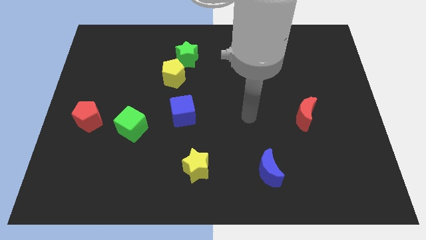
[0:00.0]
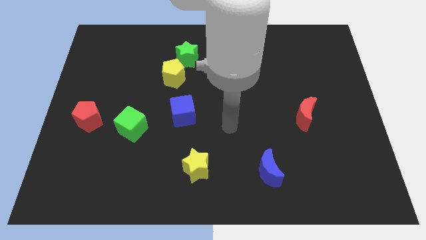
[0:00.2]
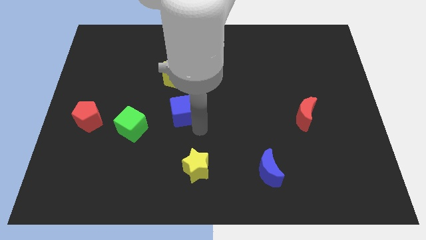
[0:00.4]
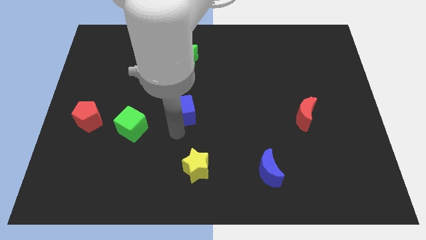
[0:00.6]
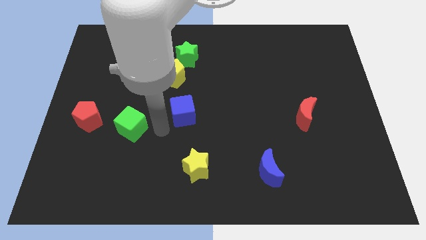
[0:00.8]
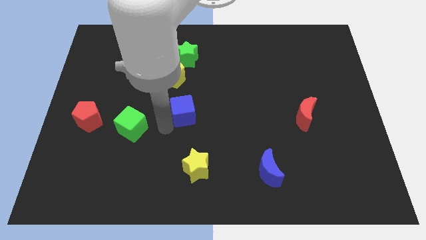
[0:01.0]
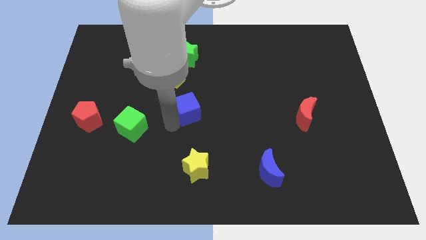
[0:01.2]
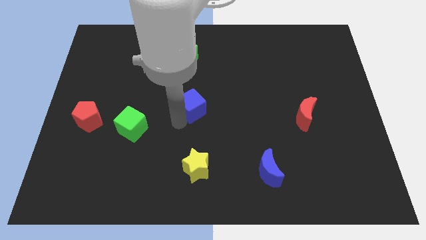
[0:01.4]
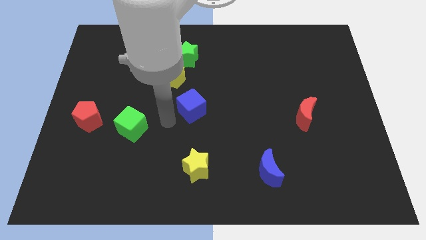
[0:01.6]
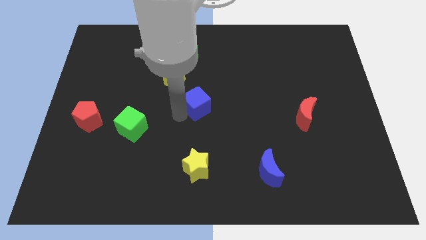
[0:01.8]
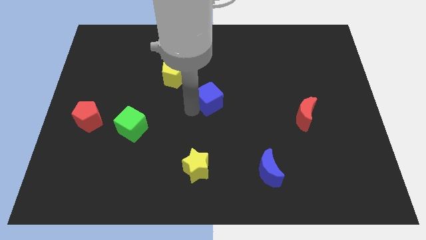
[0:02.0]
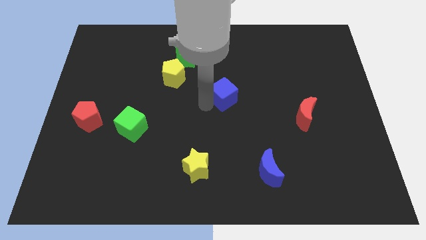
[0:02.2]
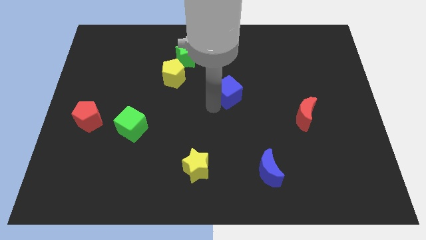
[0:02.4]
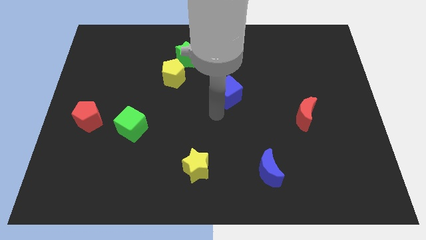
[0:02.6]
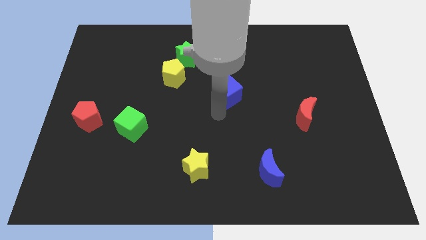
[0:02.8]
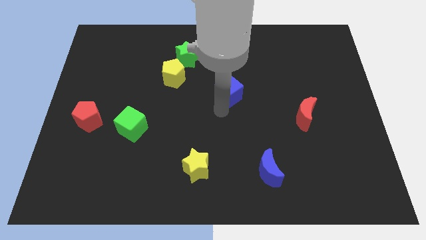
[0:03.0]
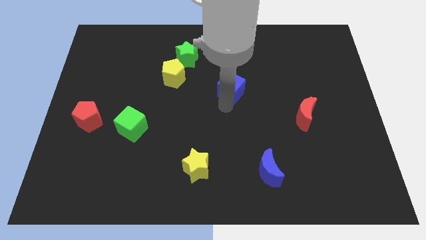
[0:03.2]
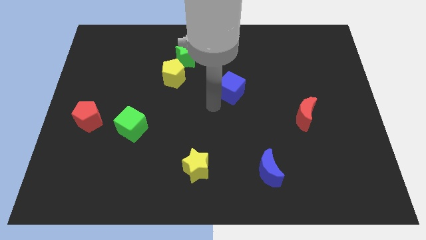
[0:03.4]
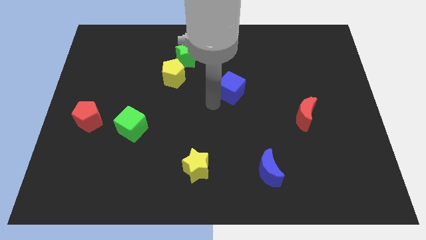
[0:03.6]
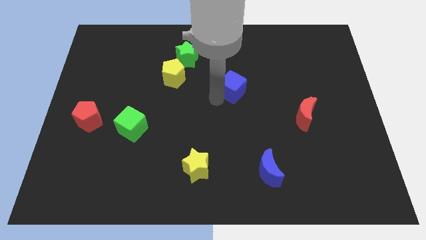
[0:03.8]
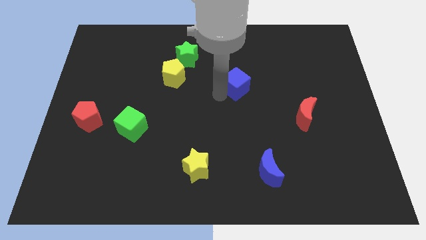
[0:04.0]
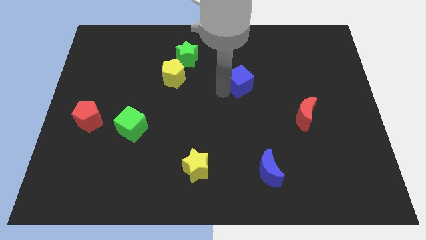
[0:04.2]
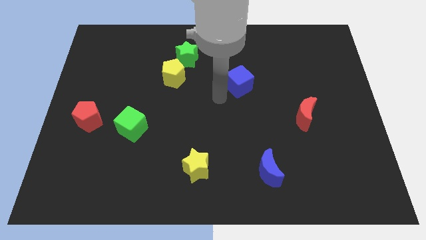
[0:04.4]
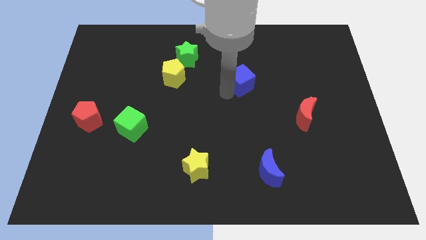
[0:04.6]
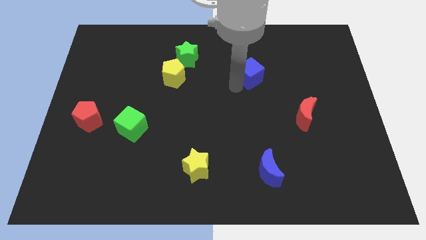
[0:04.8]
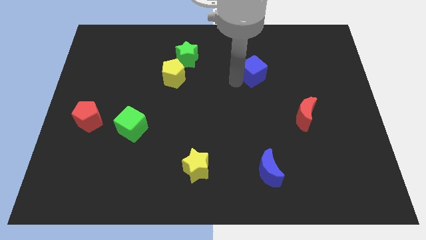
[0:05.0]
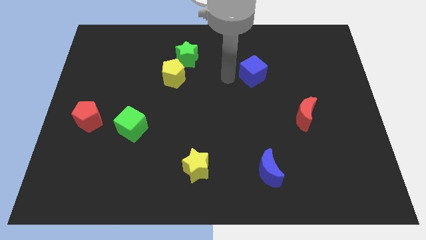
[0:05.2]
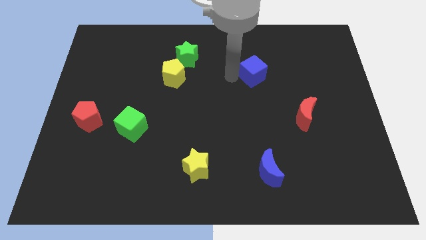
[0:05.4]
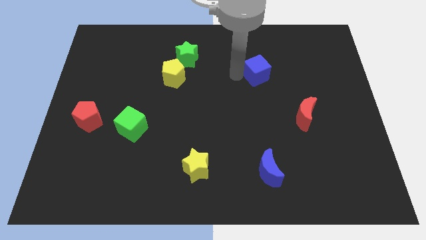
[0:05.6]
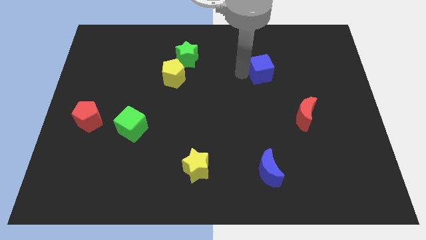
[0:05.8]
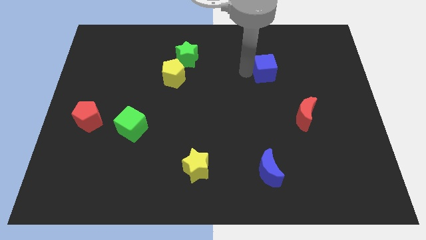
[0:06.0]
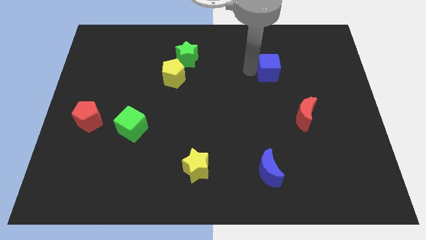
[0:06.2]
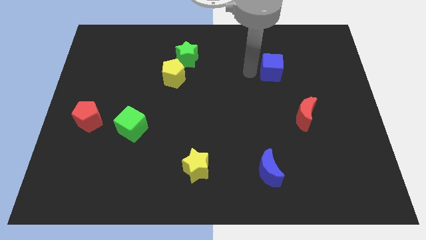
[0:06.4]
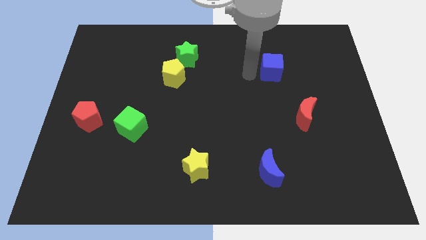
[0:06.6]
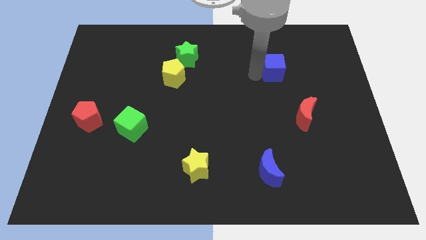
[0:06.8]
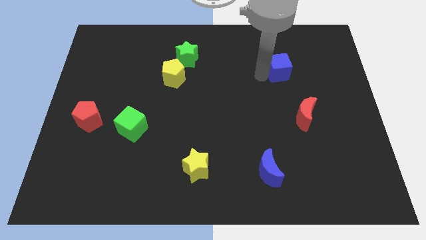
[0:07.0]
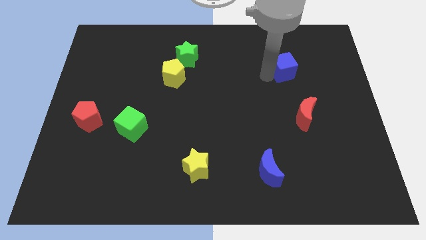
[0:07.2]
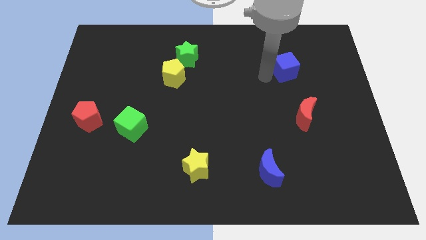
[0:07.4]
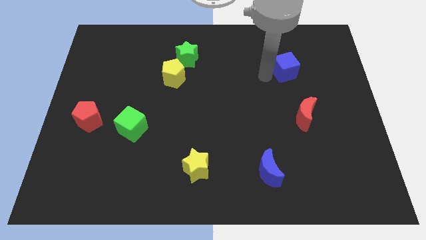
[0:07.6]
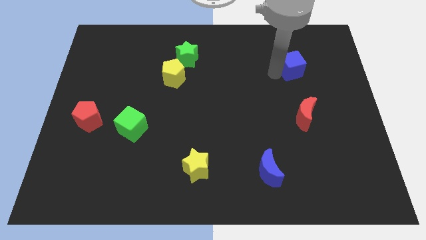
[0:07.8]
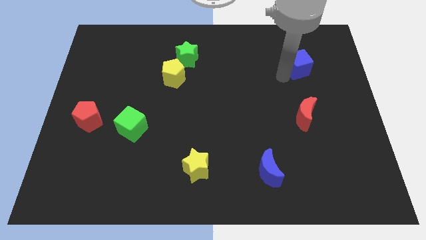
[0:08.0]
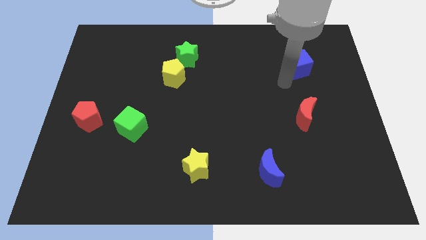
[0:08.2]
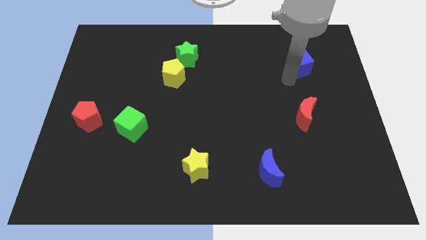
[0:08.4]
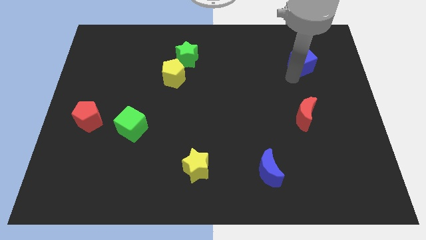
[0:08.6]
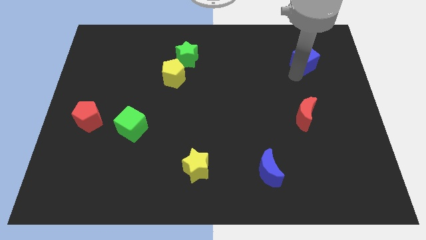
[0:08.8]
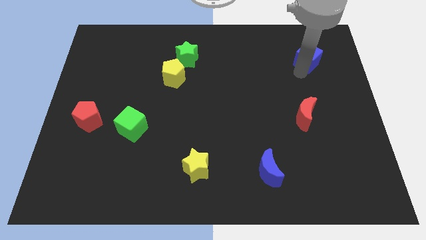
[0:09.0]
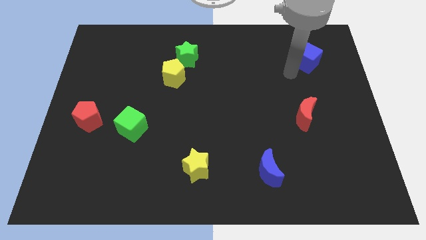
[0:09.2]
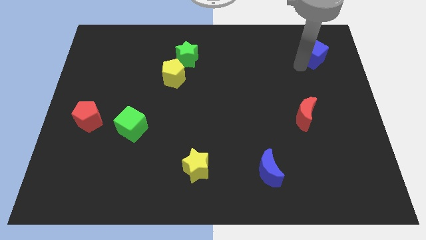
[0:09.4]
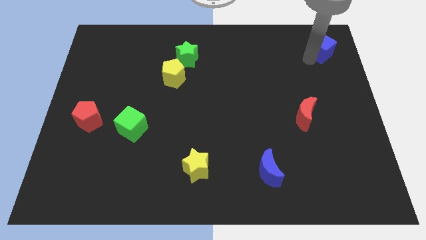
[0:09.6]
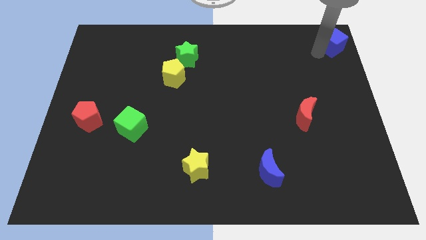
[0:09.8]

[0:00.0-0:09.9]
put the blue cube to the top right

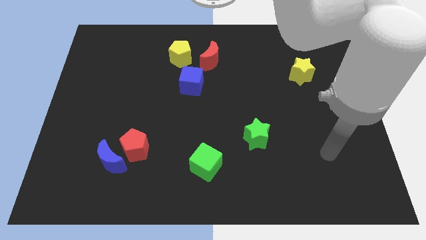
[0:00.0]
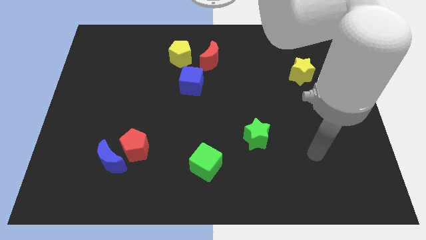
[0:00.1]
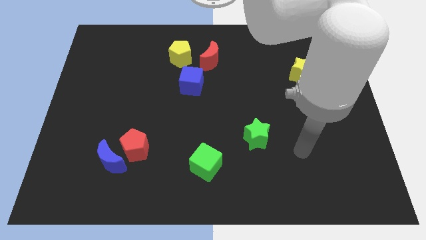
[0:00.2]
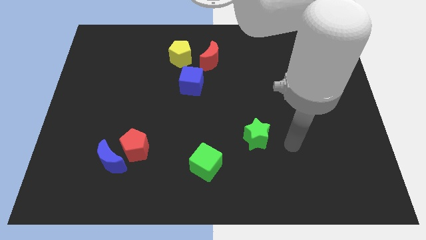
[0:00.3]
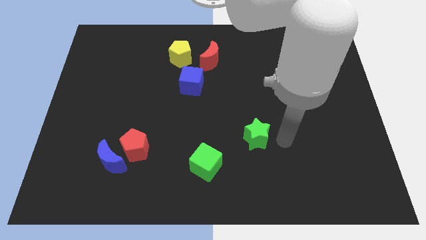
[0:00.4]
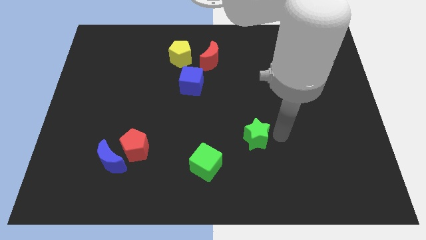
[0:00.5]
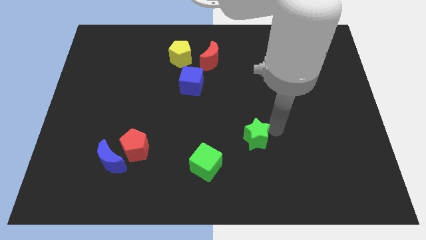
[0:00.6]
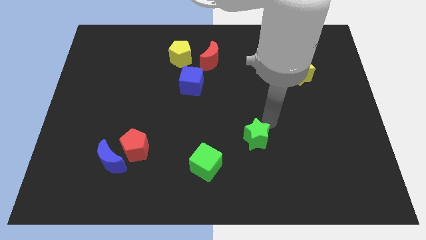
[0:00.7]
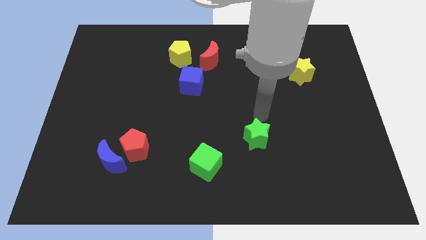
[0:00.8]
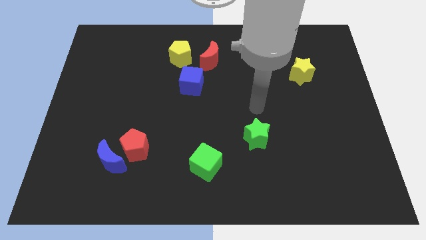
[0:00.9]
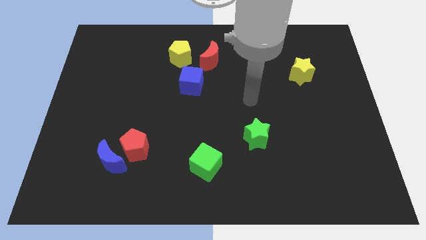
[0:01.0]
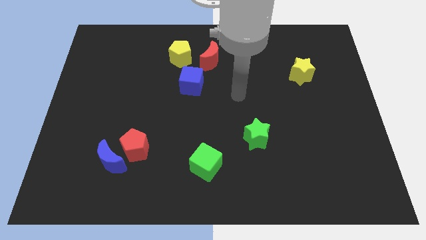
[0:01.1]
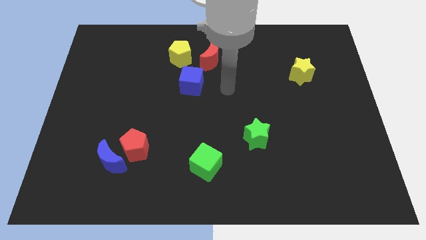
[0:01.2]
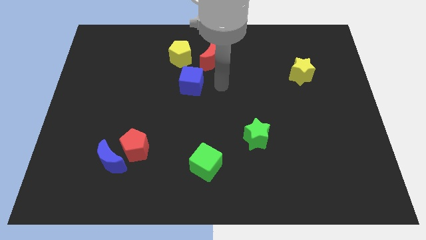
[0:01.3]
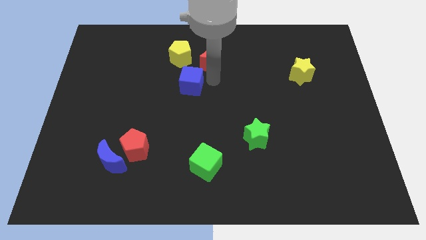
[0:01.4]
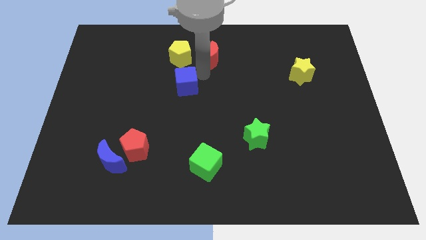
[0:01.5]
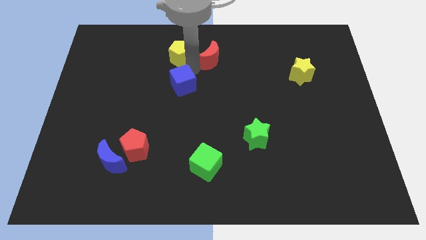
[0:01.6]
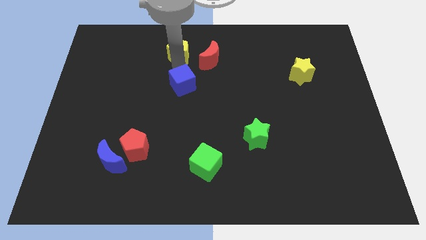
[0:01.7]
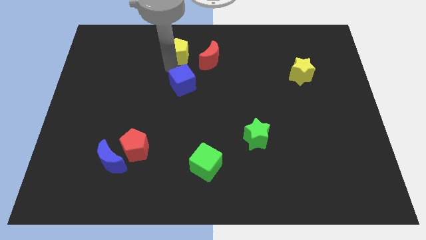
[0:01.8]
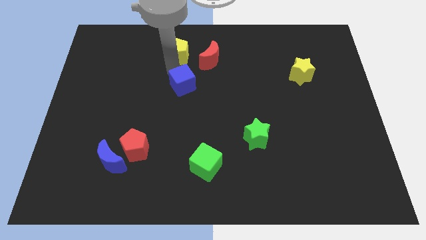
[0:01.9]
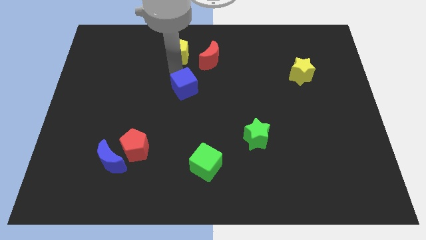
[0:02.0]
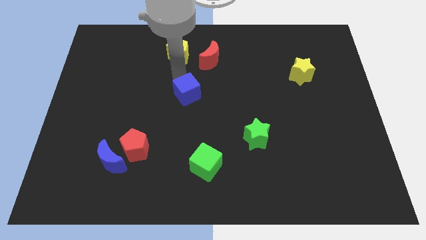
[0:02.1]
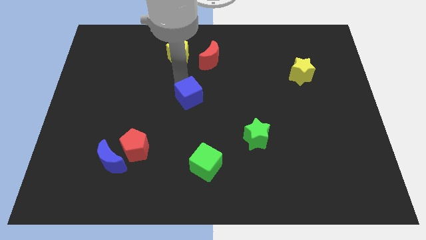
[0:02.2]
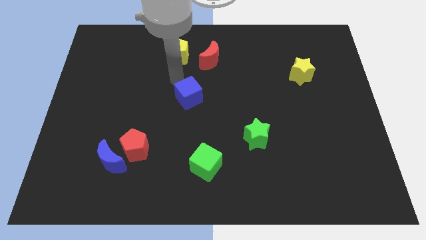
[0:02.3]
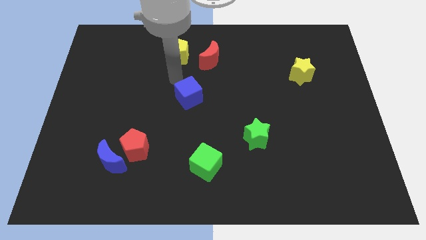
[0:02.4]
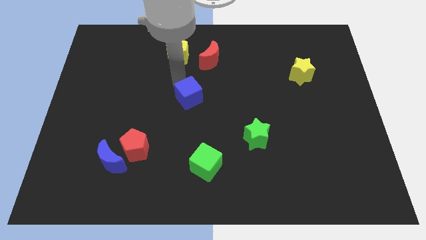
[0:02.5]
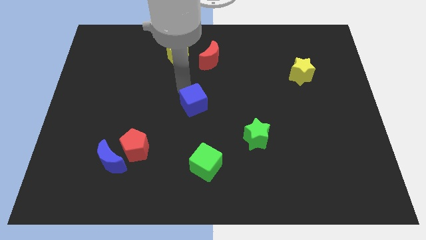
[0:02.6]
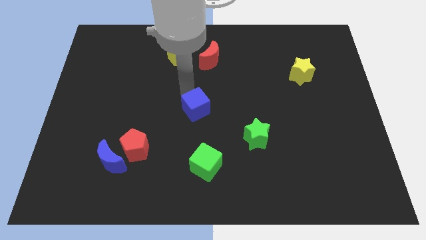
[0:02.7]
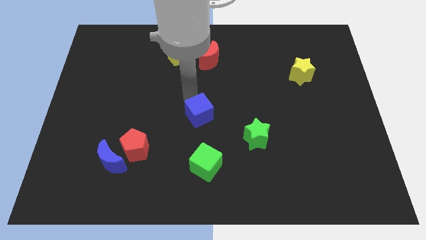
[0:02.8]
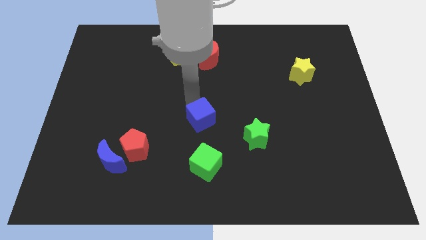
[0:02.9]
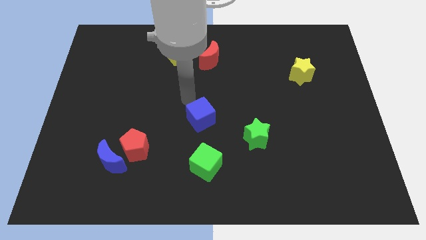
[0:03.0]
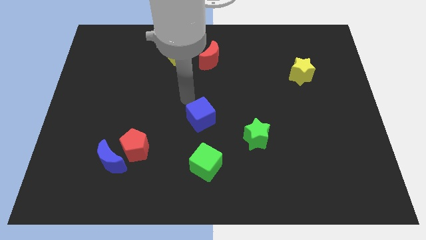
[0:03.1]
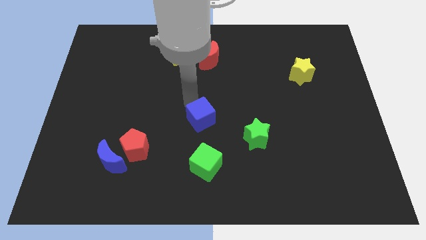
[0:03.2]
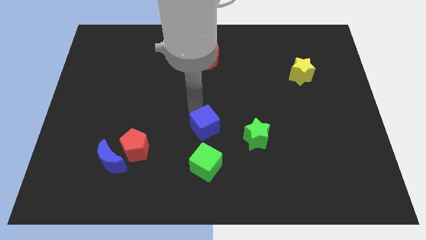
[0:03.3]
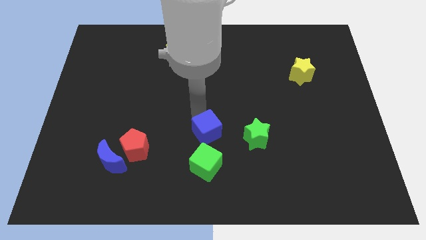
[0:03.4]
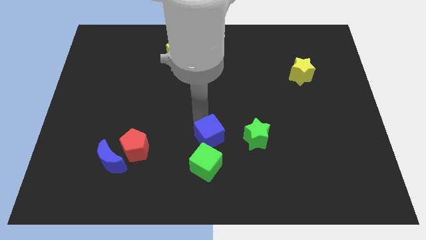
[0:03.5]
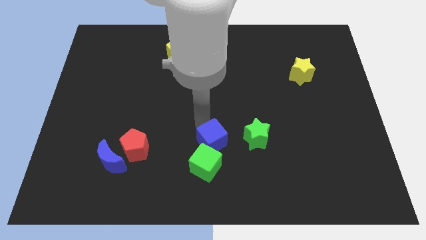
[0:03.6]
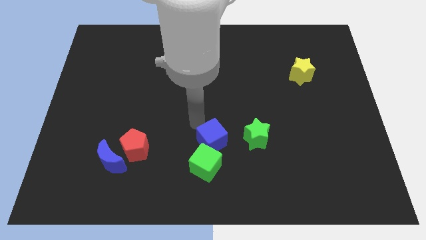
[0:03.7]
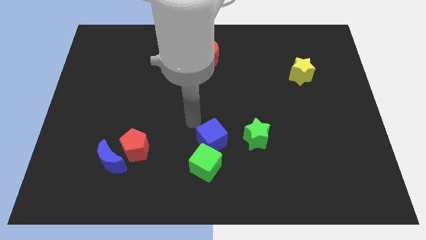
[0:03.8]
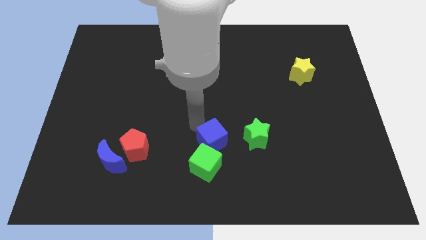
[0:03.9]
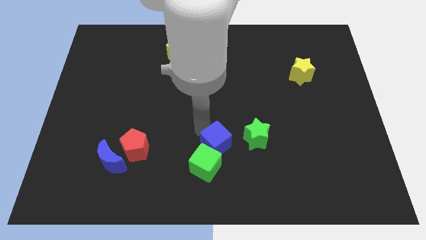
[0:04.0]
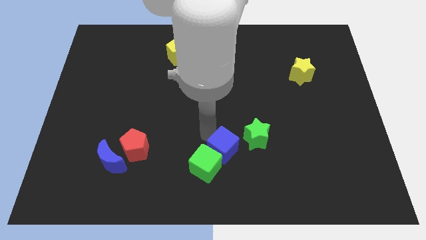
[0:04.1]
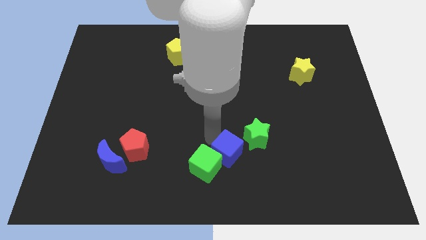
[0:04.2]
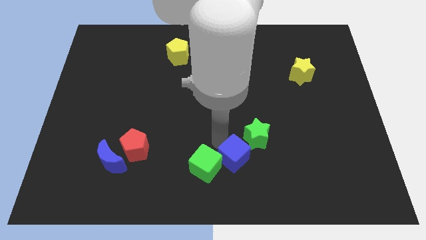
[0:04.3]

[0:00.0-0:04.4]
put the blue cube to the bottom
